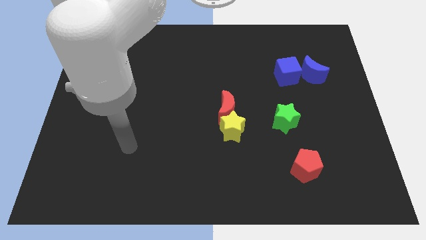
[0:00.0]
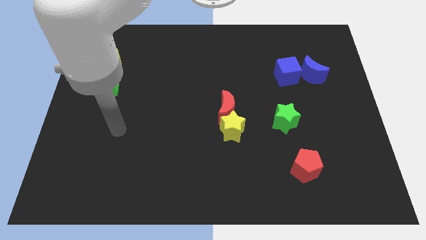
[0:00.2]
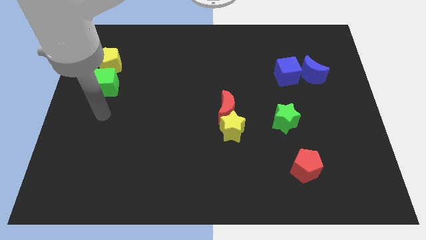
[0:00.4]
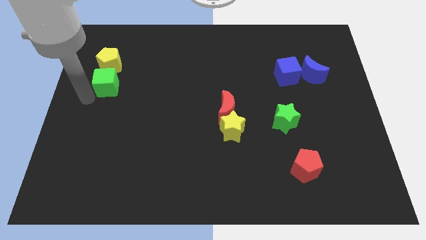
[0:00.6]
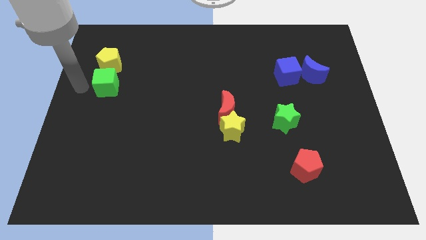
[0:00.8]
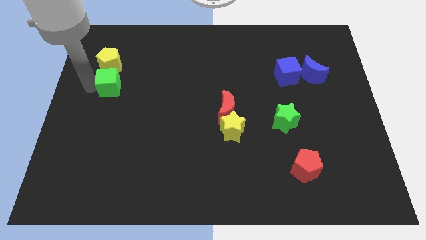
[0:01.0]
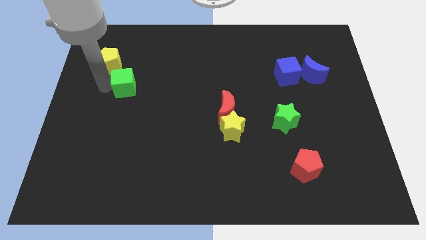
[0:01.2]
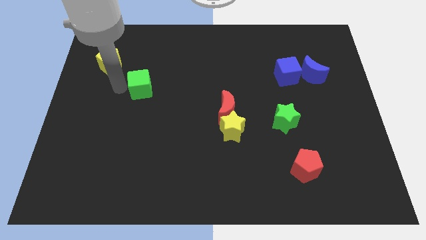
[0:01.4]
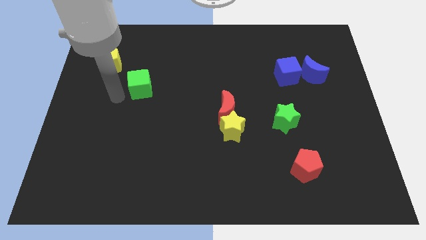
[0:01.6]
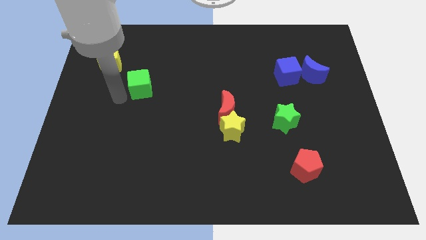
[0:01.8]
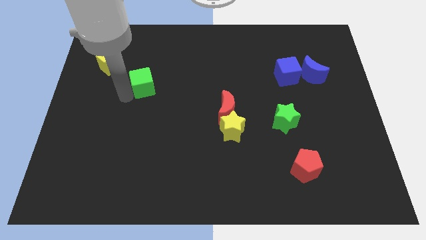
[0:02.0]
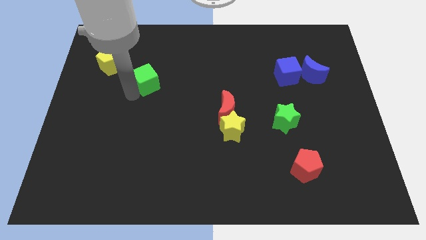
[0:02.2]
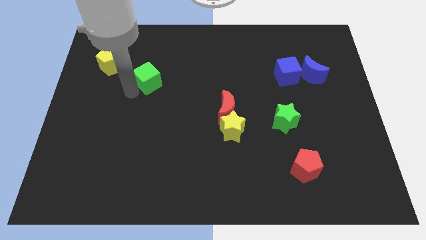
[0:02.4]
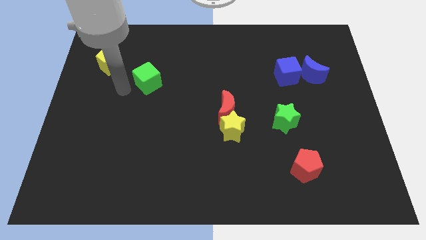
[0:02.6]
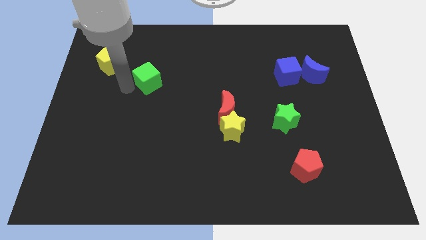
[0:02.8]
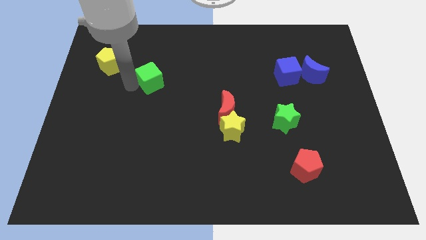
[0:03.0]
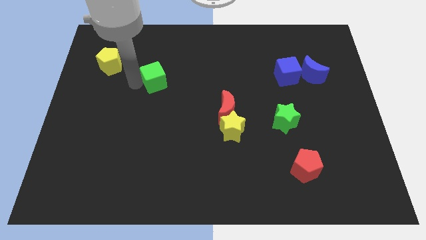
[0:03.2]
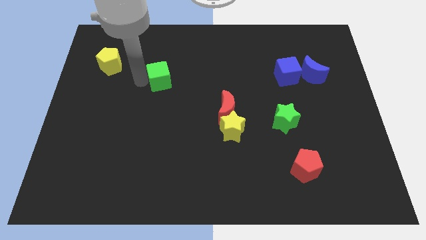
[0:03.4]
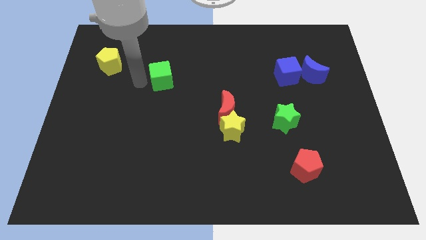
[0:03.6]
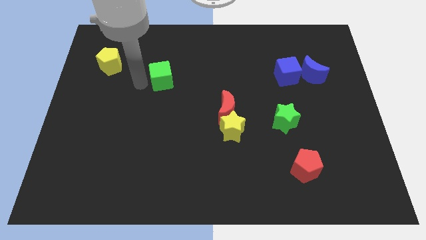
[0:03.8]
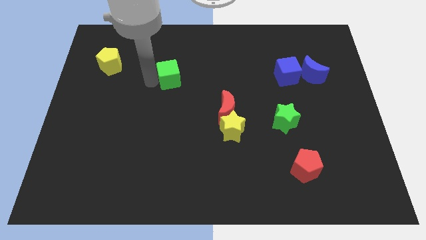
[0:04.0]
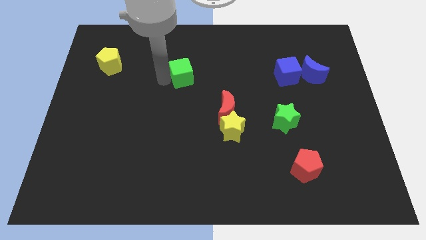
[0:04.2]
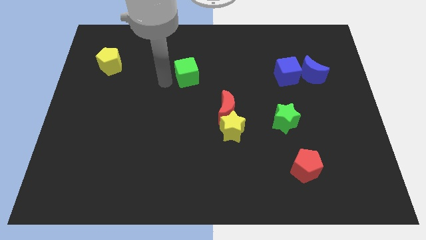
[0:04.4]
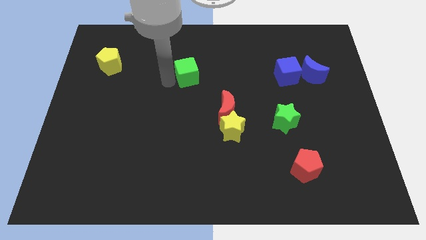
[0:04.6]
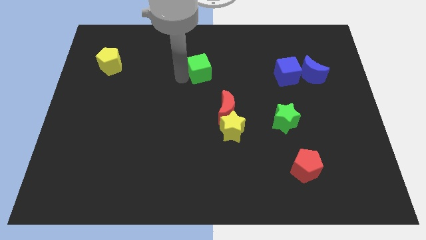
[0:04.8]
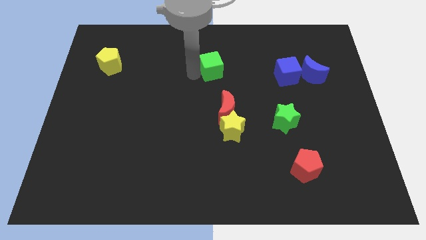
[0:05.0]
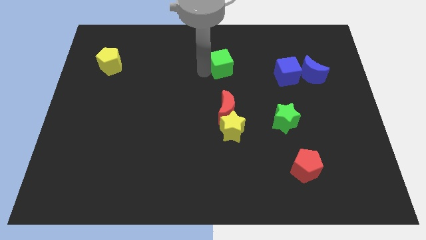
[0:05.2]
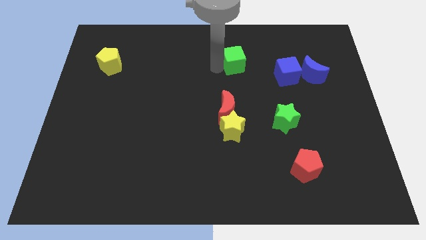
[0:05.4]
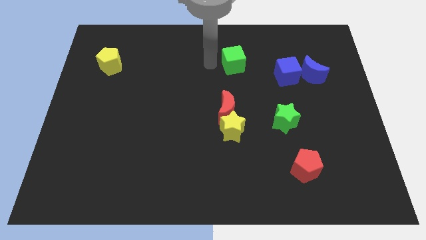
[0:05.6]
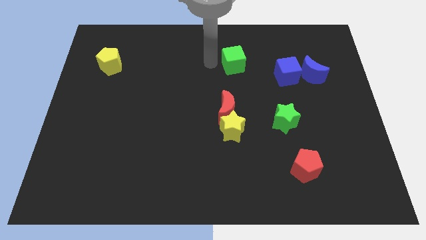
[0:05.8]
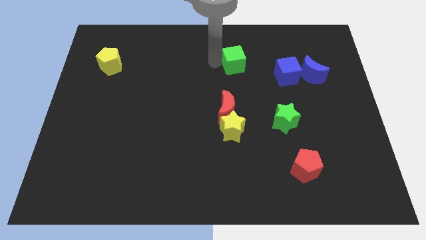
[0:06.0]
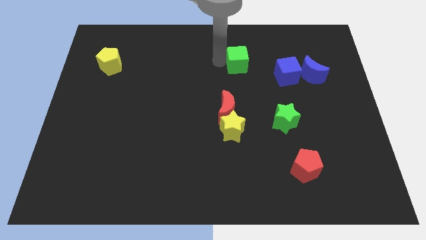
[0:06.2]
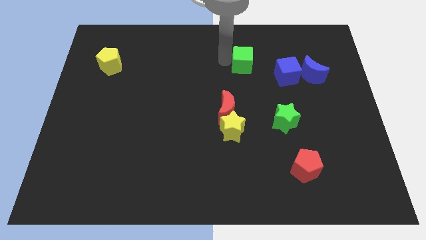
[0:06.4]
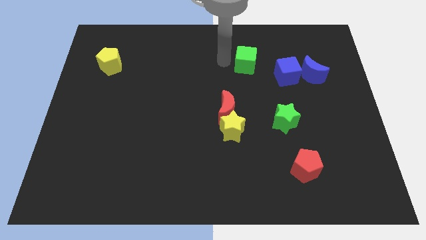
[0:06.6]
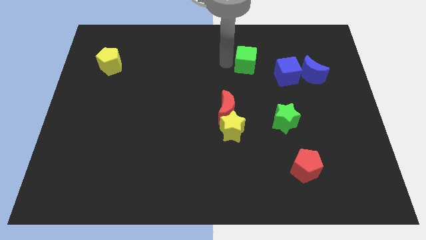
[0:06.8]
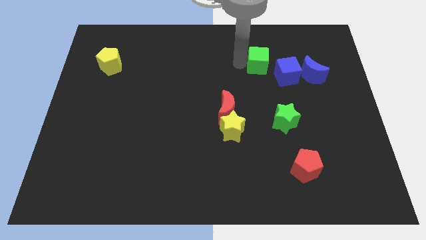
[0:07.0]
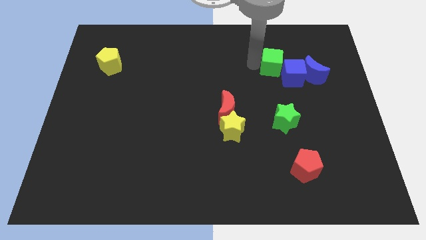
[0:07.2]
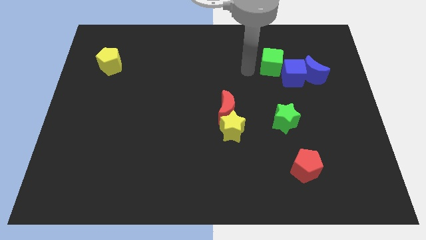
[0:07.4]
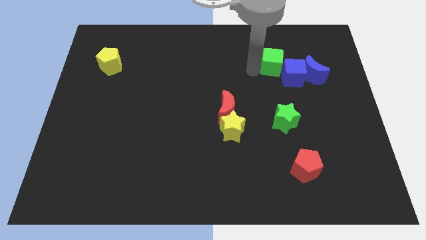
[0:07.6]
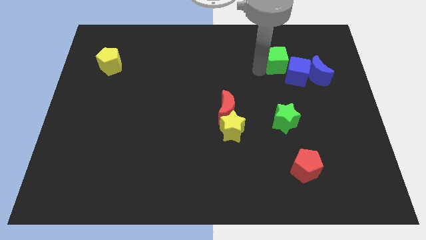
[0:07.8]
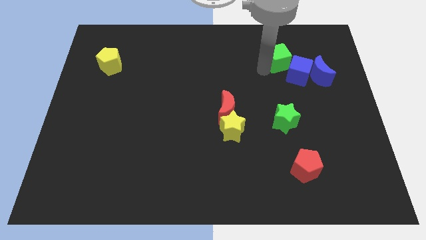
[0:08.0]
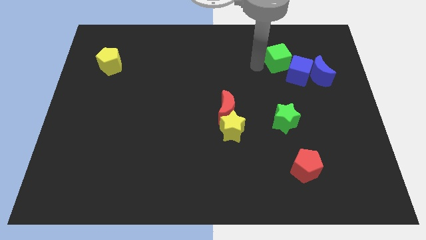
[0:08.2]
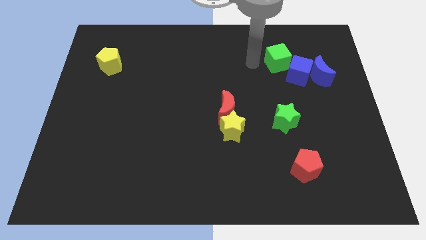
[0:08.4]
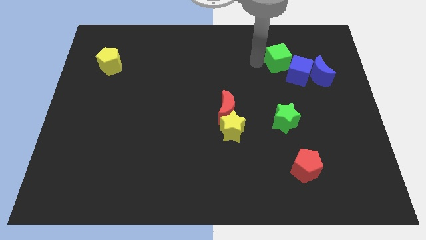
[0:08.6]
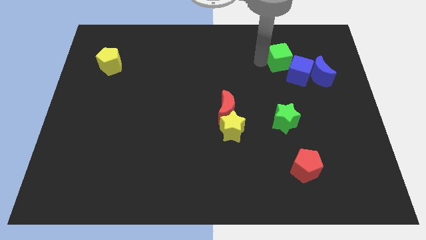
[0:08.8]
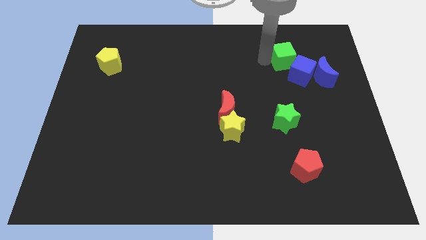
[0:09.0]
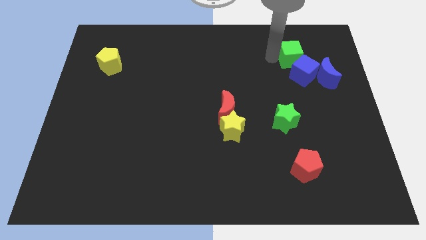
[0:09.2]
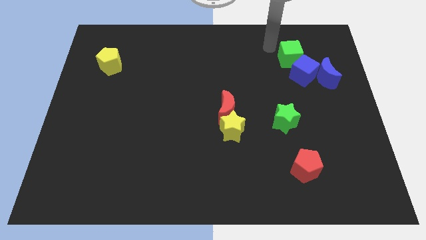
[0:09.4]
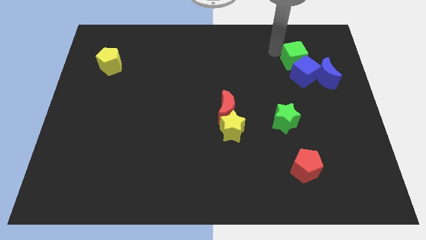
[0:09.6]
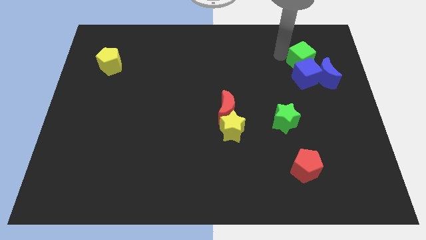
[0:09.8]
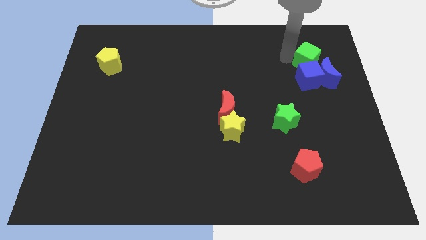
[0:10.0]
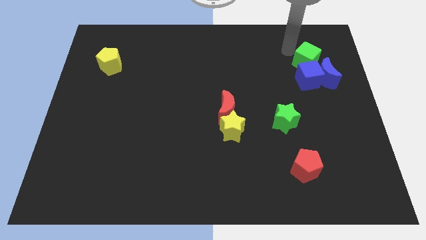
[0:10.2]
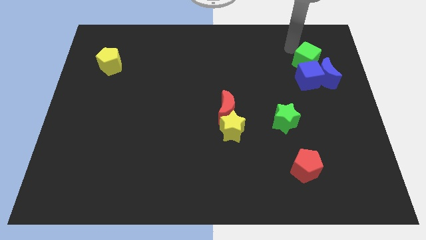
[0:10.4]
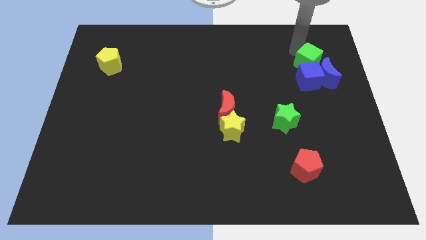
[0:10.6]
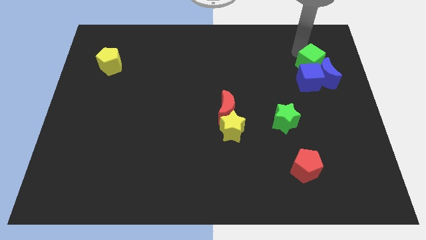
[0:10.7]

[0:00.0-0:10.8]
push the green cube towards the blue moon

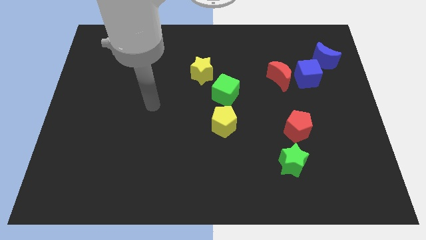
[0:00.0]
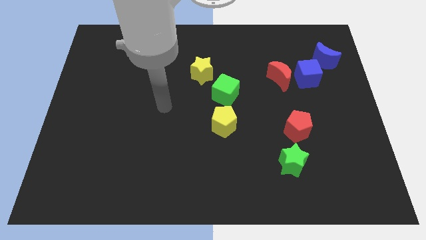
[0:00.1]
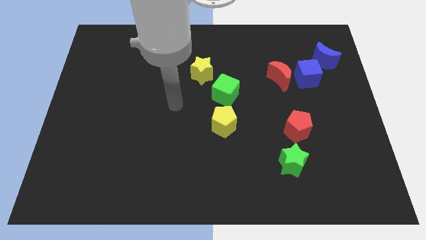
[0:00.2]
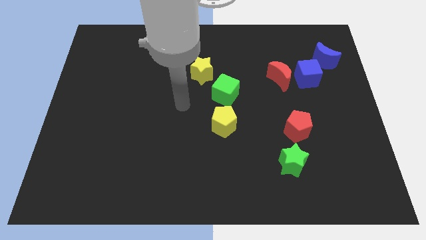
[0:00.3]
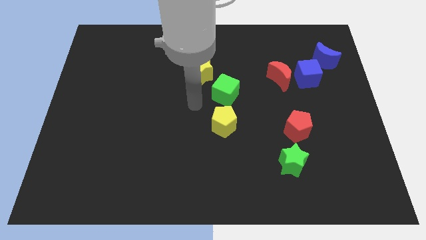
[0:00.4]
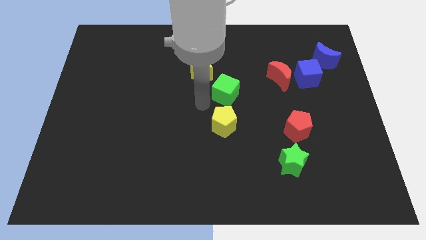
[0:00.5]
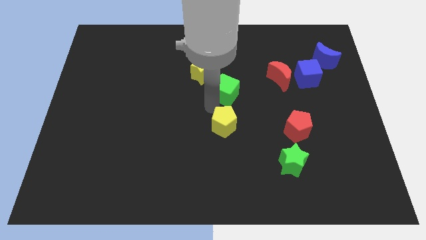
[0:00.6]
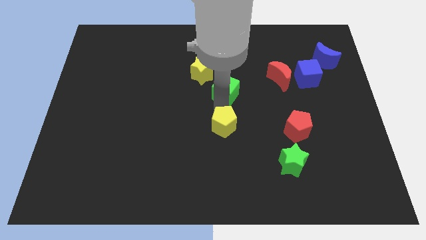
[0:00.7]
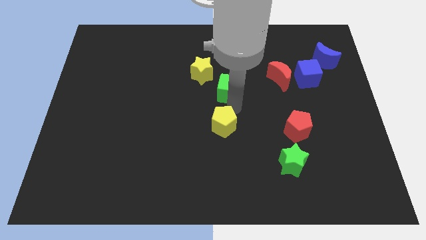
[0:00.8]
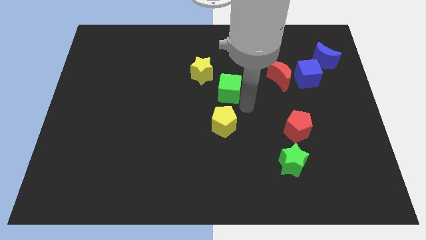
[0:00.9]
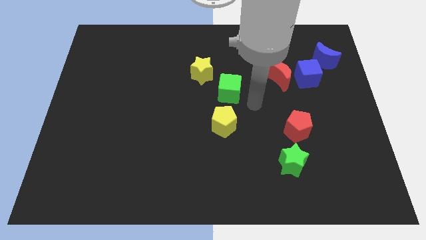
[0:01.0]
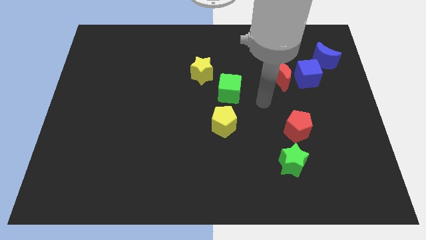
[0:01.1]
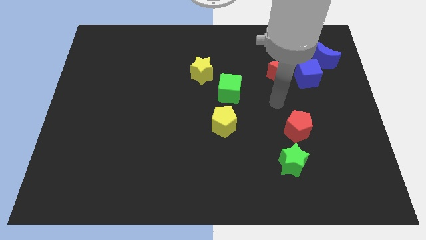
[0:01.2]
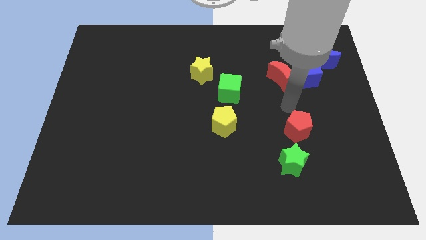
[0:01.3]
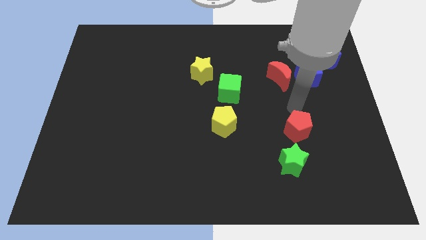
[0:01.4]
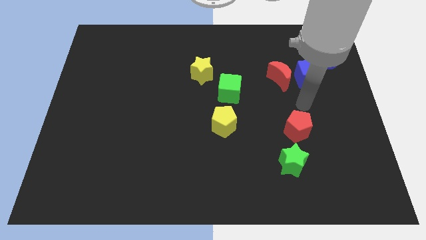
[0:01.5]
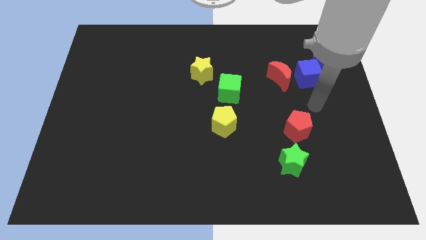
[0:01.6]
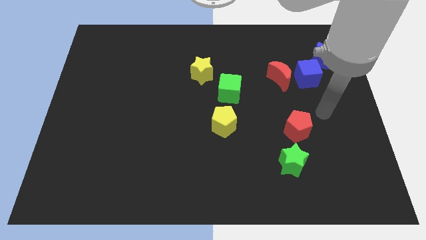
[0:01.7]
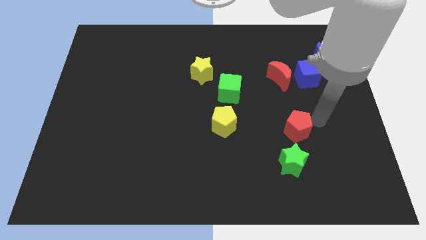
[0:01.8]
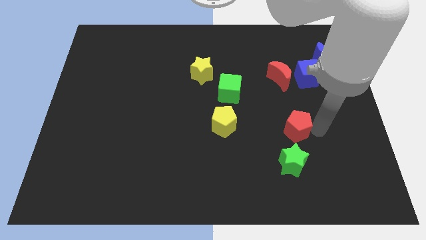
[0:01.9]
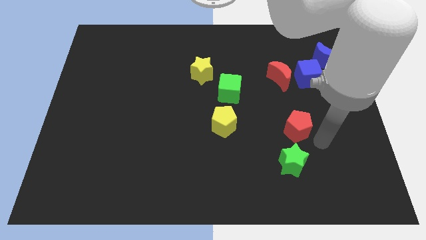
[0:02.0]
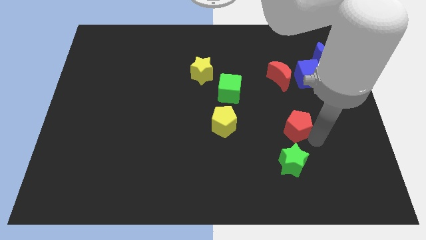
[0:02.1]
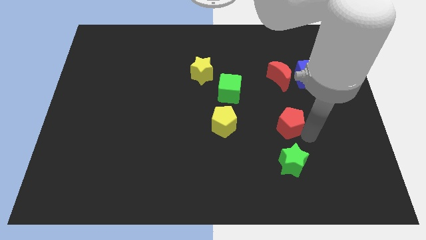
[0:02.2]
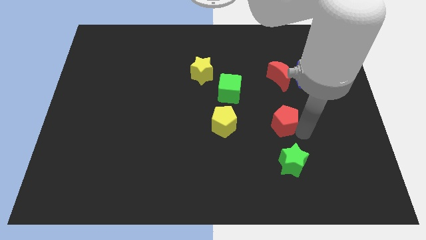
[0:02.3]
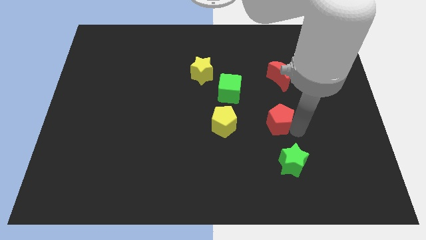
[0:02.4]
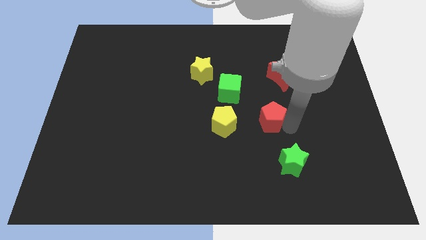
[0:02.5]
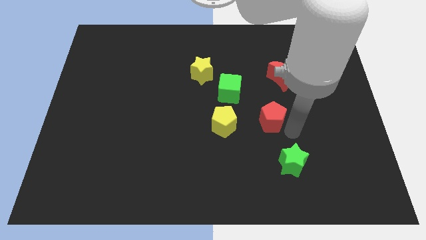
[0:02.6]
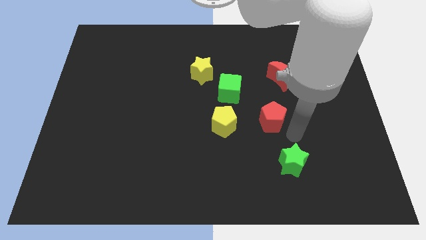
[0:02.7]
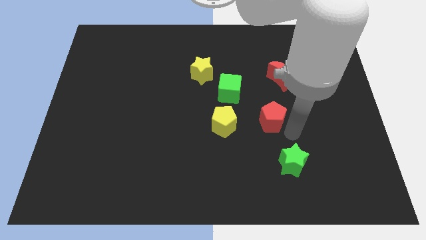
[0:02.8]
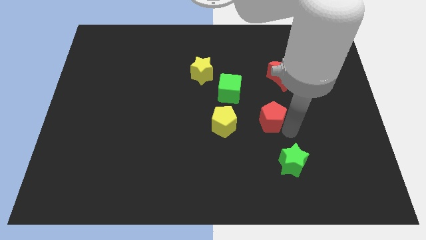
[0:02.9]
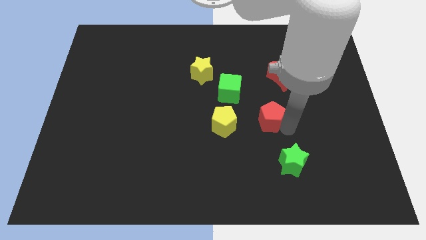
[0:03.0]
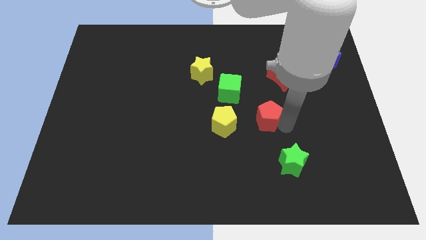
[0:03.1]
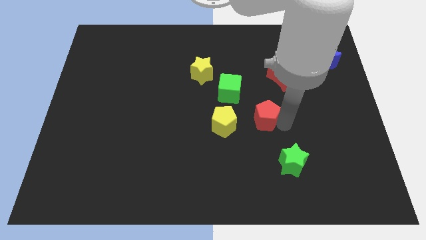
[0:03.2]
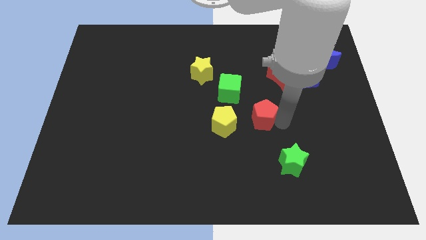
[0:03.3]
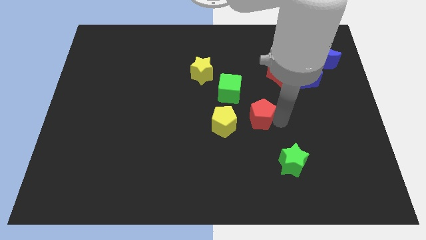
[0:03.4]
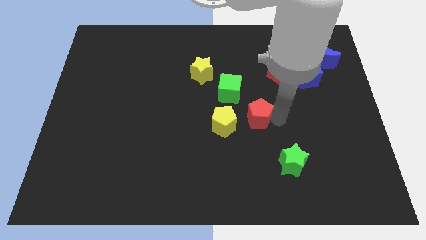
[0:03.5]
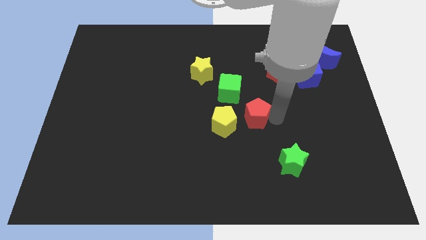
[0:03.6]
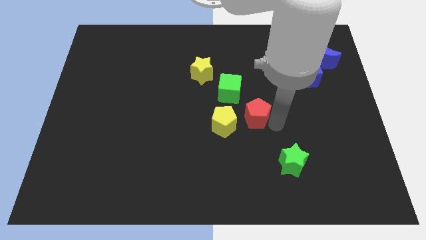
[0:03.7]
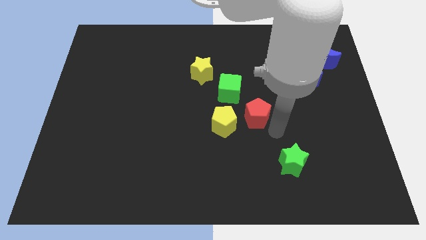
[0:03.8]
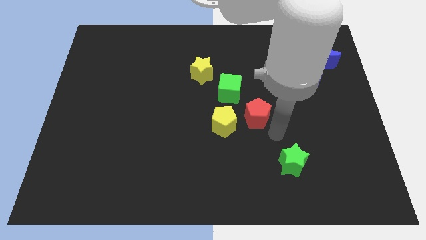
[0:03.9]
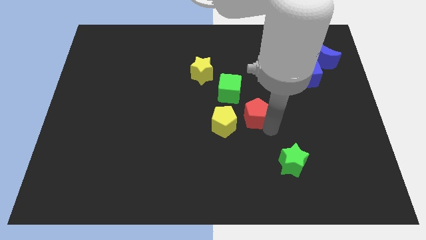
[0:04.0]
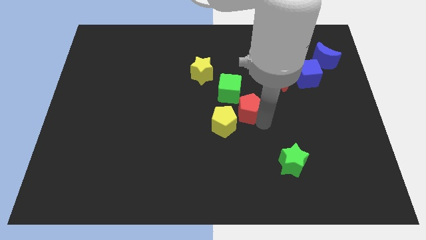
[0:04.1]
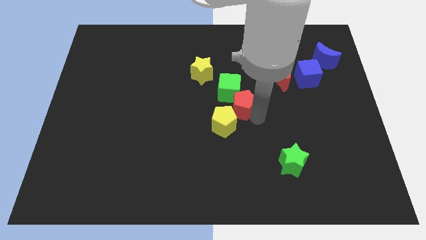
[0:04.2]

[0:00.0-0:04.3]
move the red pentagon towards the green cube
